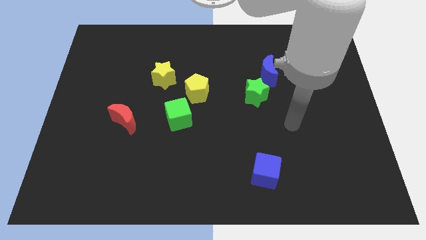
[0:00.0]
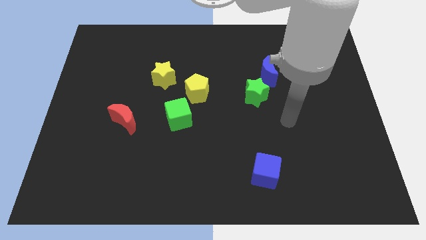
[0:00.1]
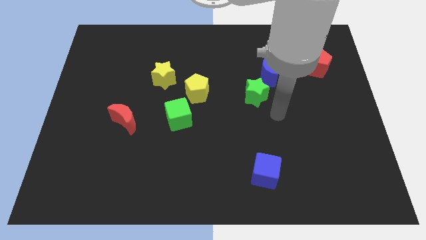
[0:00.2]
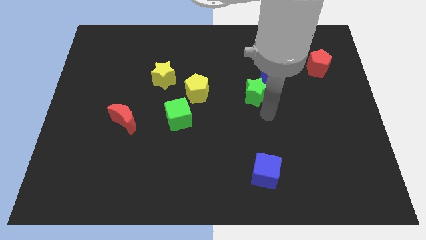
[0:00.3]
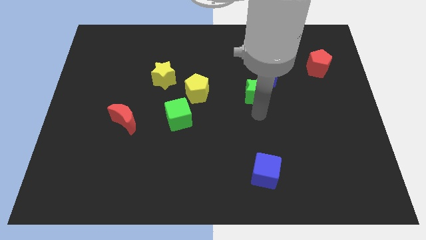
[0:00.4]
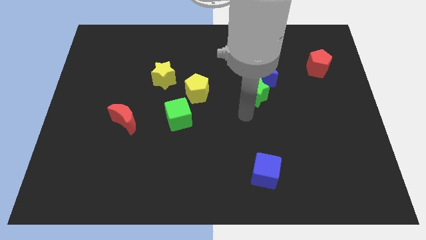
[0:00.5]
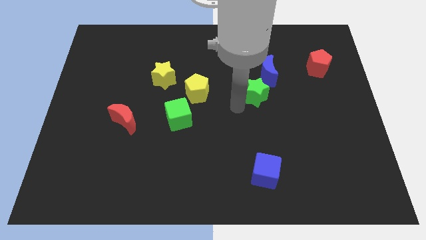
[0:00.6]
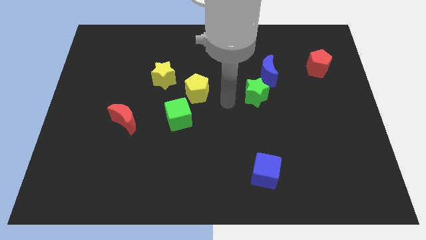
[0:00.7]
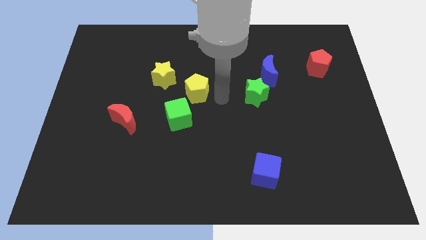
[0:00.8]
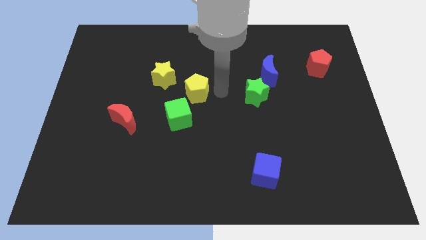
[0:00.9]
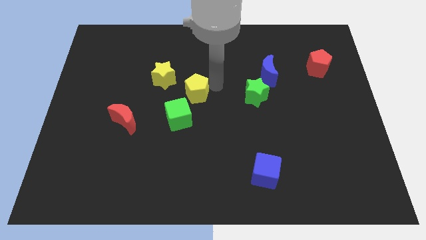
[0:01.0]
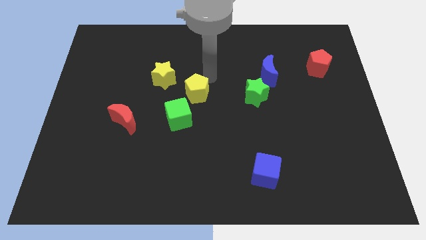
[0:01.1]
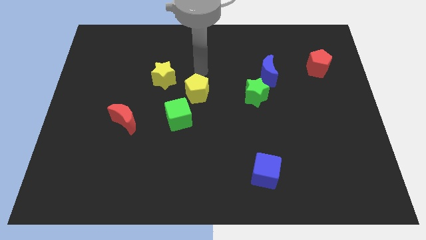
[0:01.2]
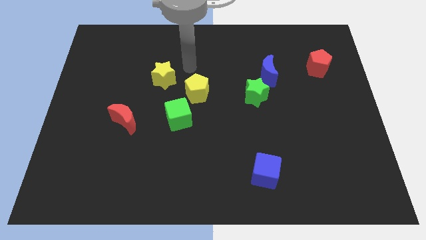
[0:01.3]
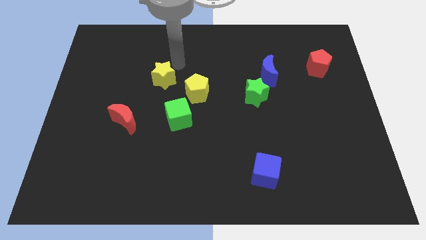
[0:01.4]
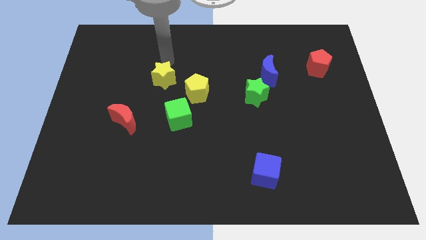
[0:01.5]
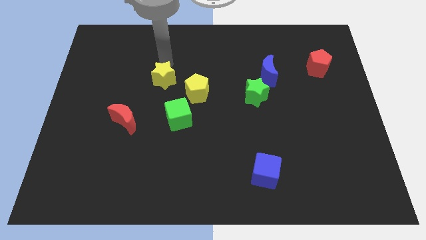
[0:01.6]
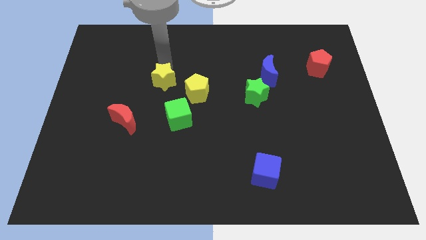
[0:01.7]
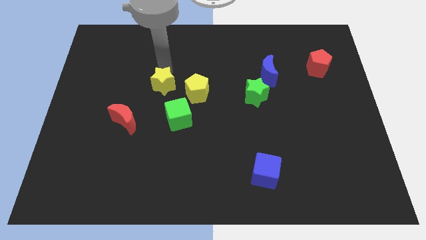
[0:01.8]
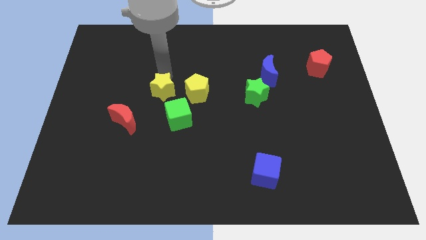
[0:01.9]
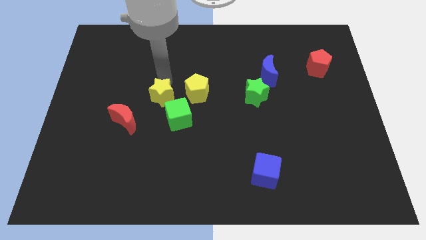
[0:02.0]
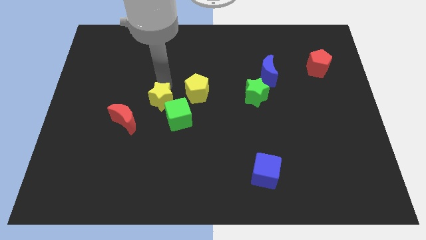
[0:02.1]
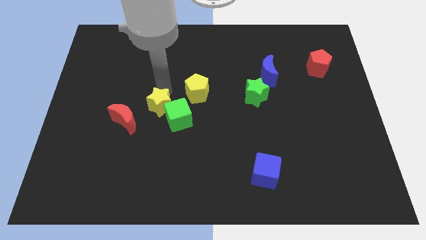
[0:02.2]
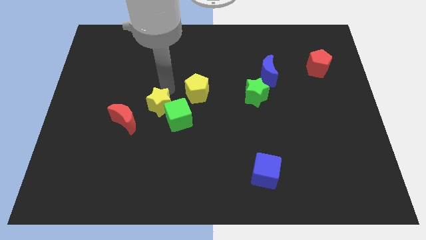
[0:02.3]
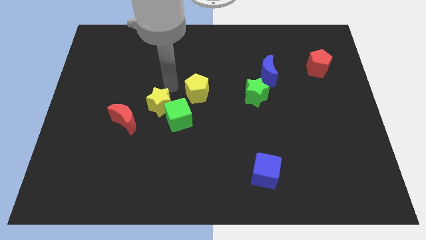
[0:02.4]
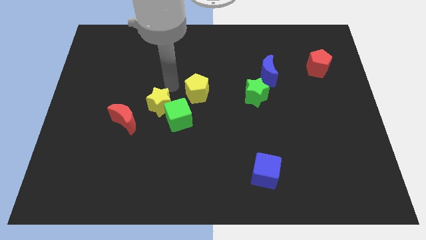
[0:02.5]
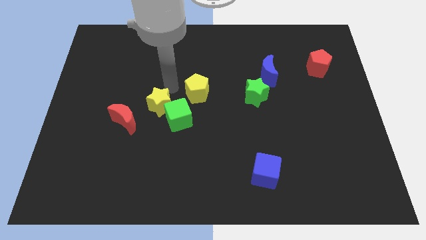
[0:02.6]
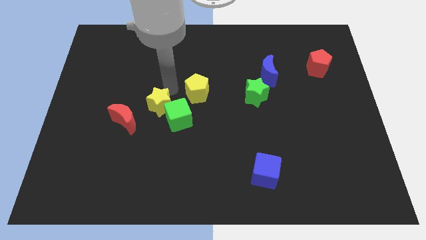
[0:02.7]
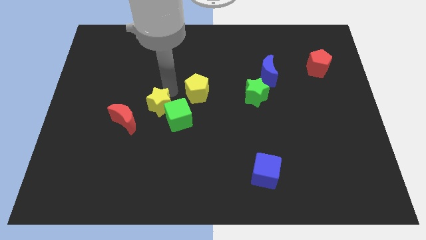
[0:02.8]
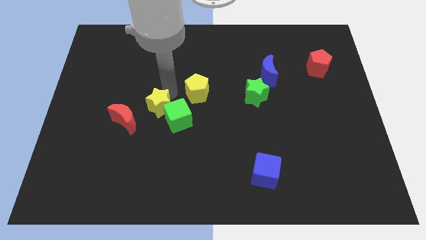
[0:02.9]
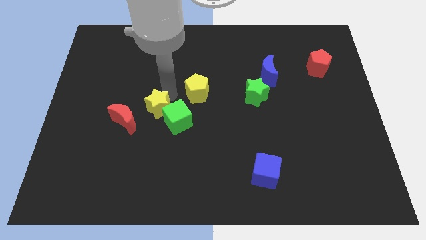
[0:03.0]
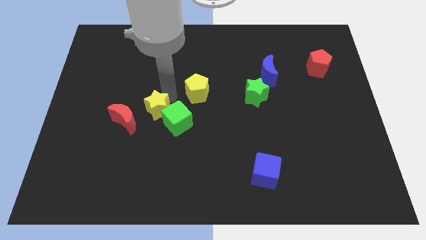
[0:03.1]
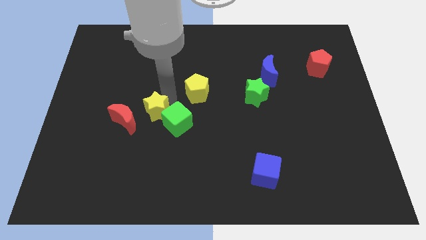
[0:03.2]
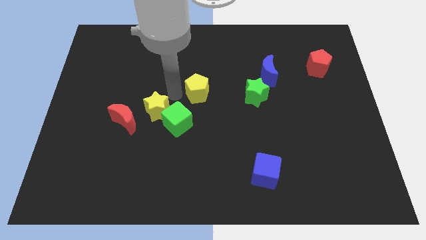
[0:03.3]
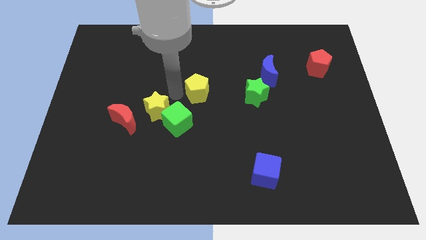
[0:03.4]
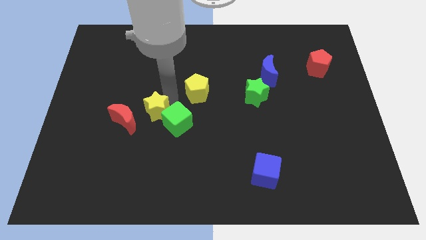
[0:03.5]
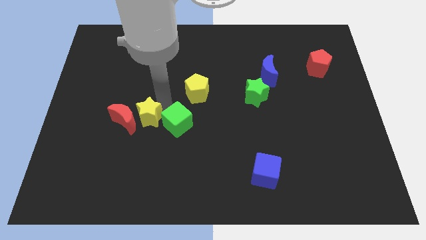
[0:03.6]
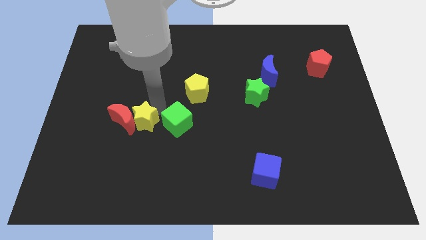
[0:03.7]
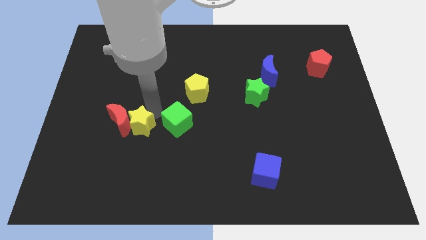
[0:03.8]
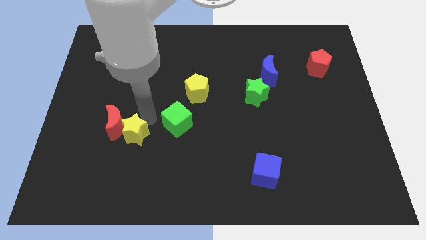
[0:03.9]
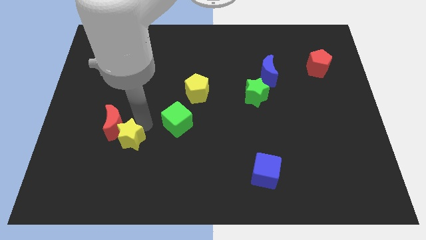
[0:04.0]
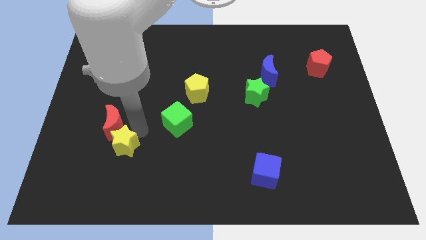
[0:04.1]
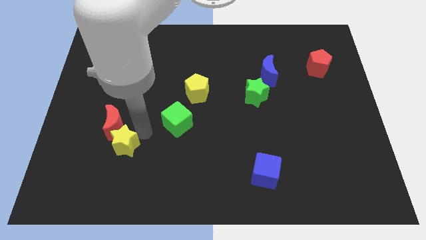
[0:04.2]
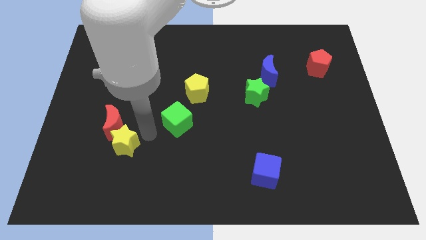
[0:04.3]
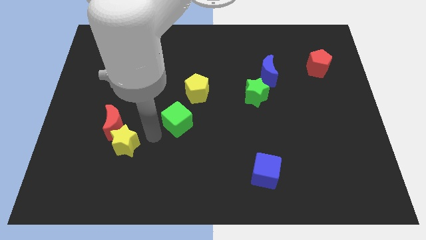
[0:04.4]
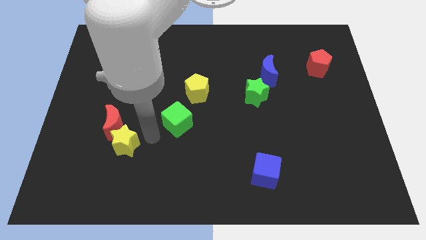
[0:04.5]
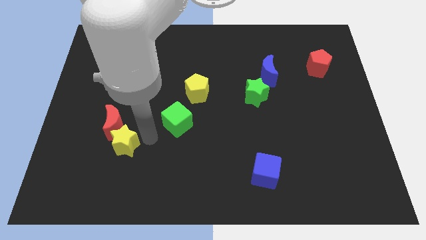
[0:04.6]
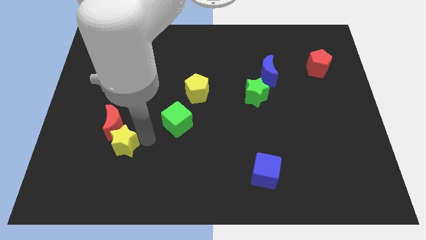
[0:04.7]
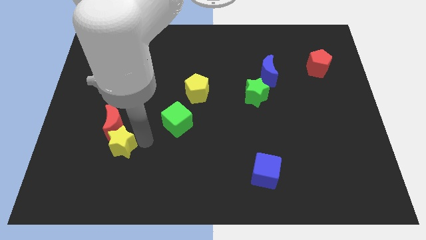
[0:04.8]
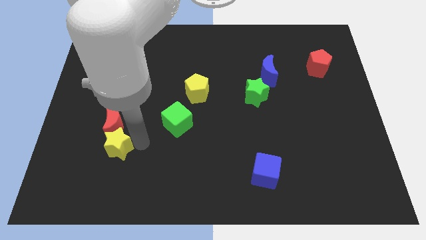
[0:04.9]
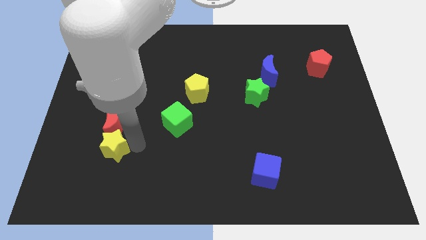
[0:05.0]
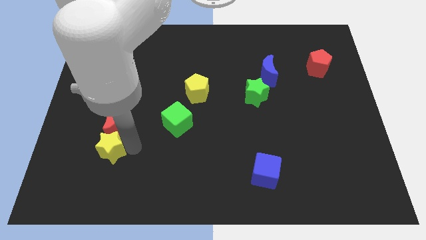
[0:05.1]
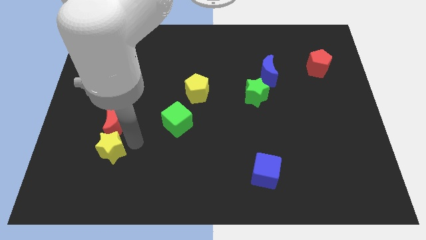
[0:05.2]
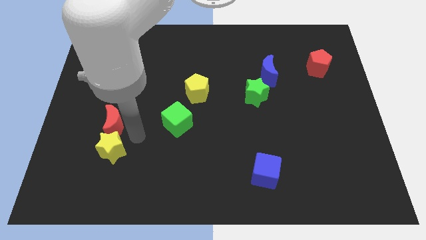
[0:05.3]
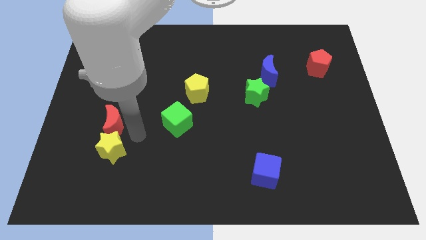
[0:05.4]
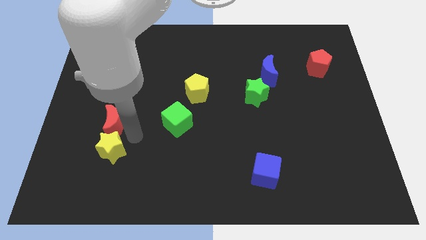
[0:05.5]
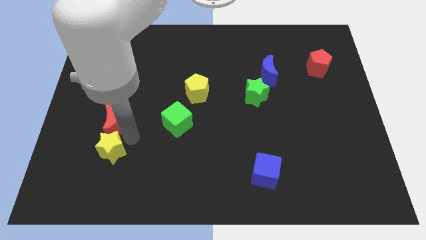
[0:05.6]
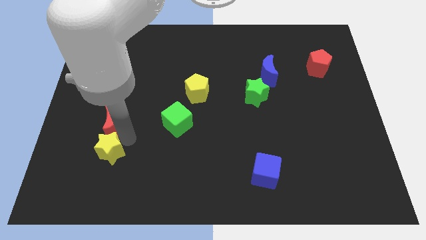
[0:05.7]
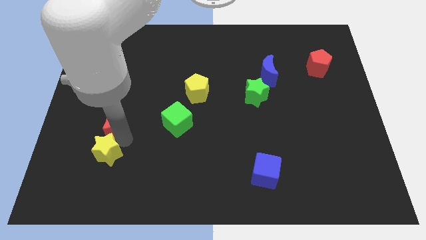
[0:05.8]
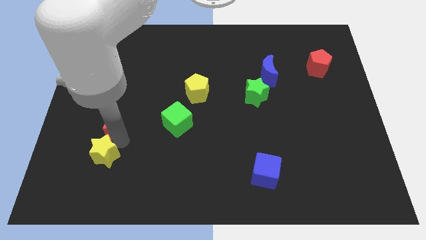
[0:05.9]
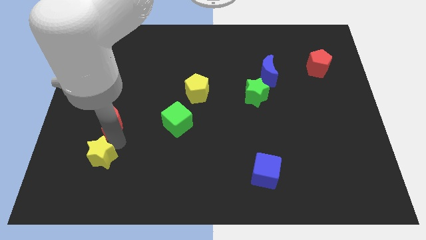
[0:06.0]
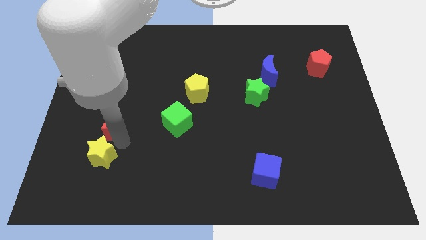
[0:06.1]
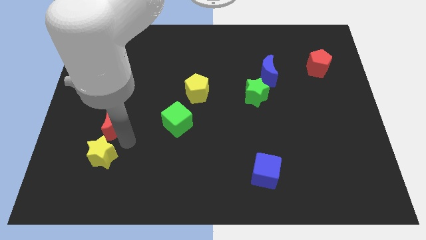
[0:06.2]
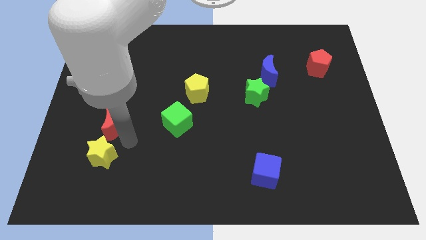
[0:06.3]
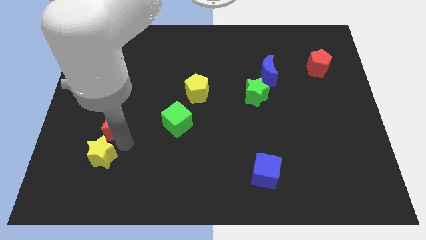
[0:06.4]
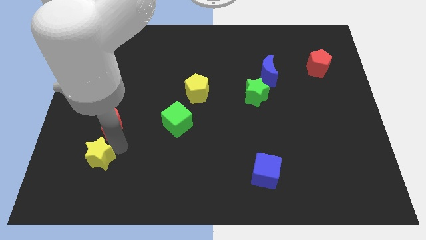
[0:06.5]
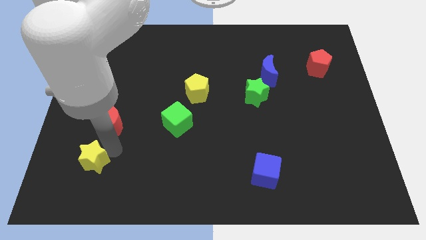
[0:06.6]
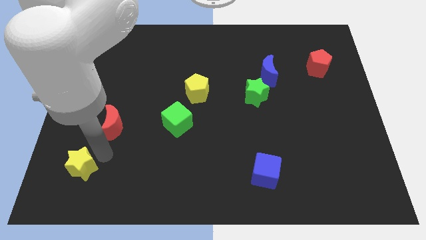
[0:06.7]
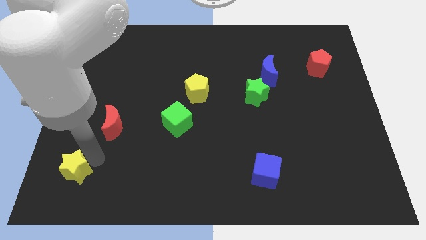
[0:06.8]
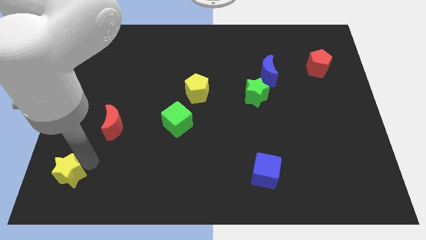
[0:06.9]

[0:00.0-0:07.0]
push the yellow star to the lower left corner
